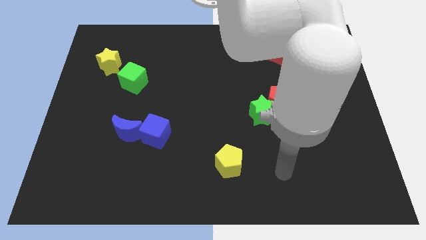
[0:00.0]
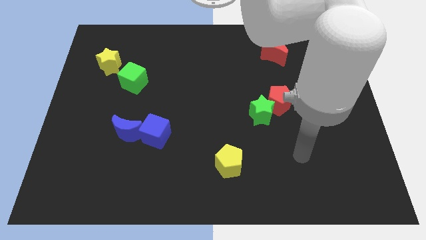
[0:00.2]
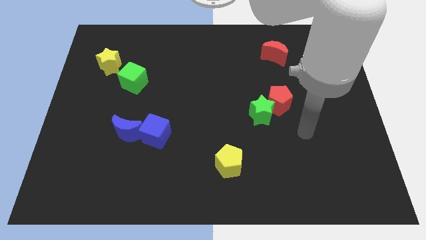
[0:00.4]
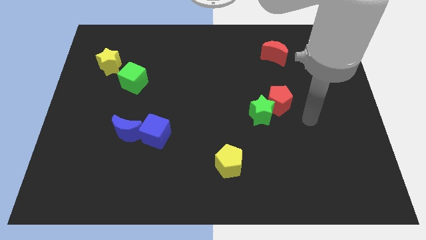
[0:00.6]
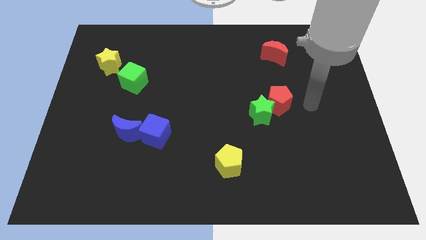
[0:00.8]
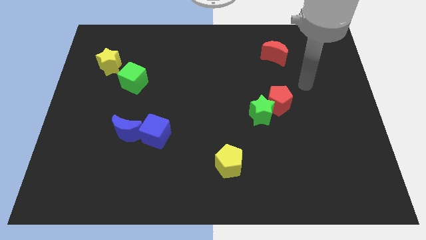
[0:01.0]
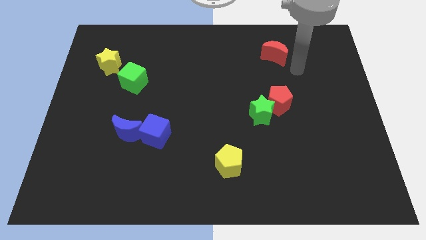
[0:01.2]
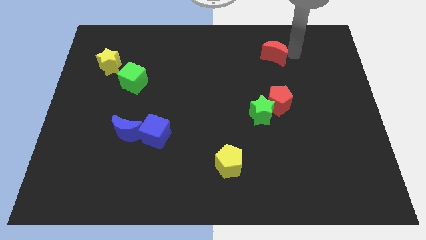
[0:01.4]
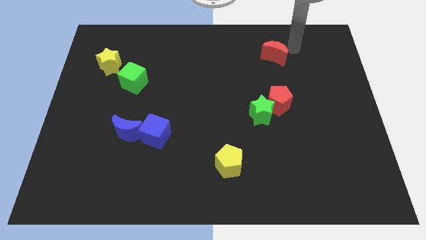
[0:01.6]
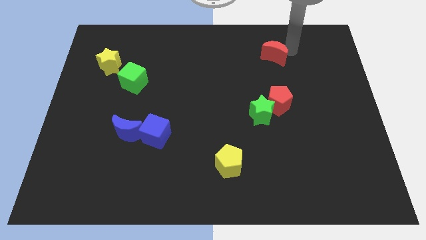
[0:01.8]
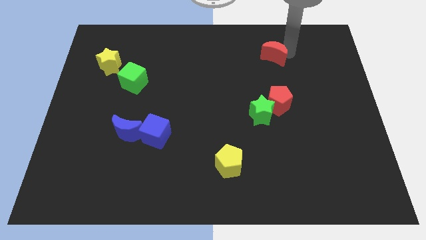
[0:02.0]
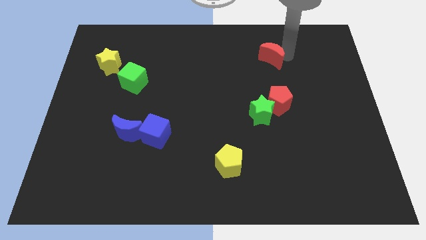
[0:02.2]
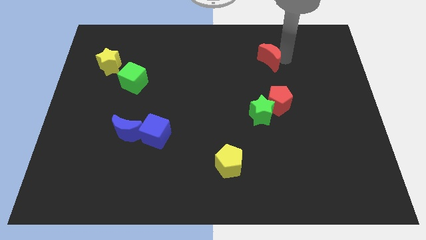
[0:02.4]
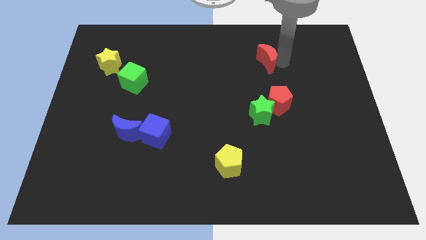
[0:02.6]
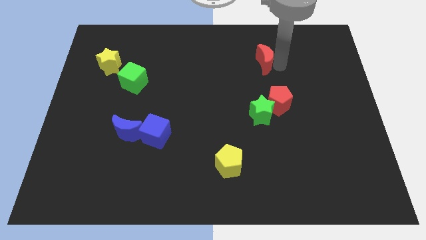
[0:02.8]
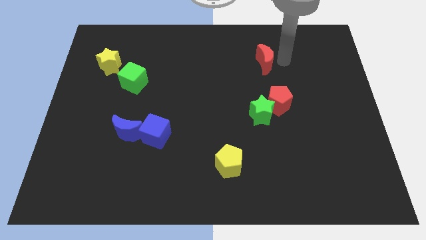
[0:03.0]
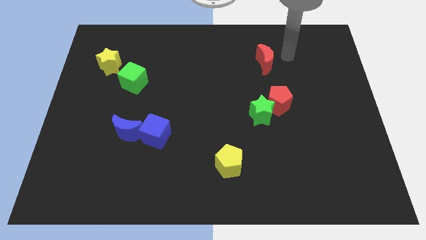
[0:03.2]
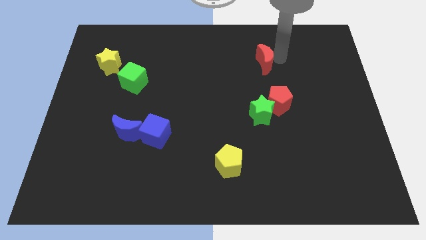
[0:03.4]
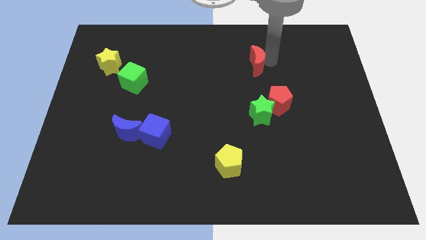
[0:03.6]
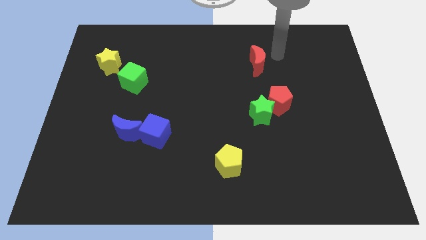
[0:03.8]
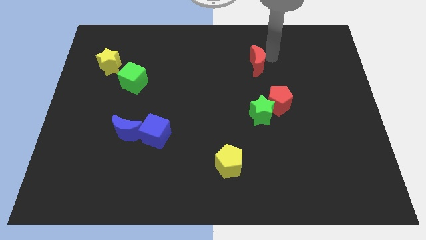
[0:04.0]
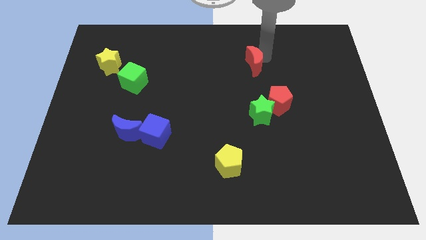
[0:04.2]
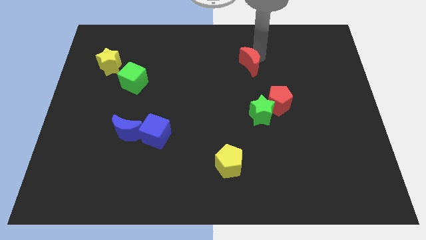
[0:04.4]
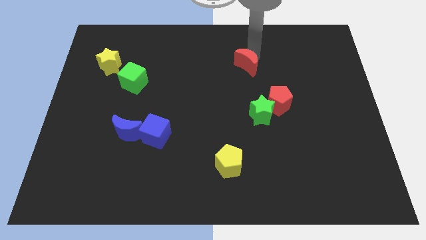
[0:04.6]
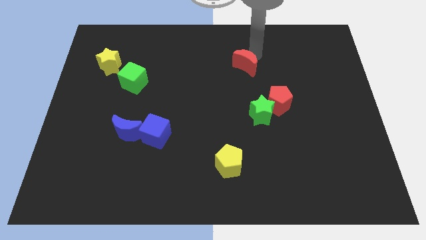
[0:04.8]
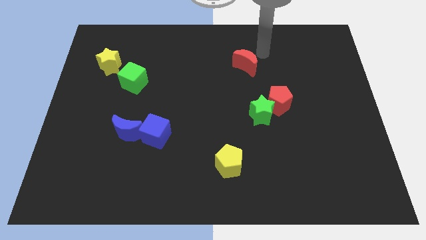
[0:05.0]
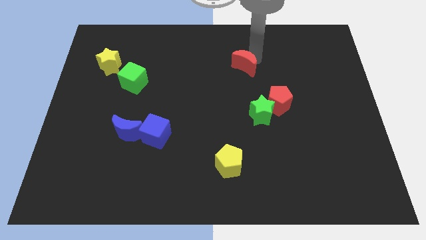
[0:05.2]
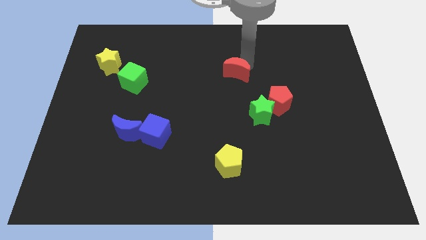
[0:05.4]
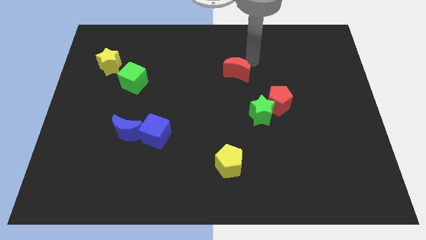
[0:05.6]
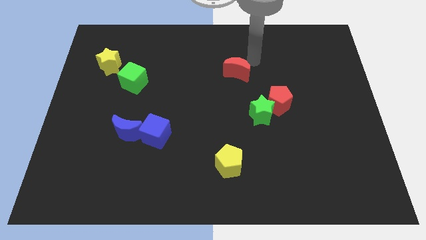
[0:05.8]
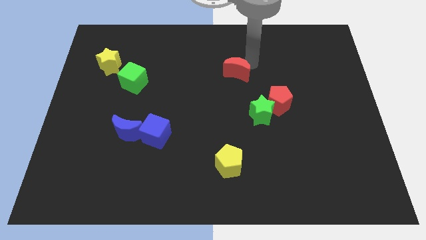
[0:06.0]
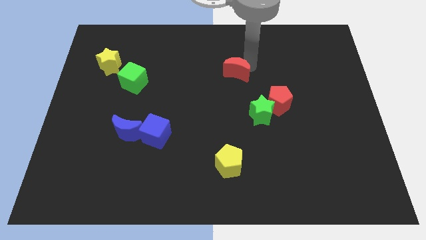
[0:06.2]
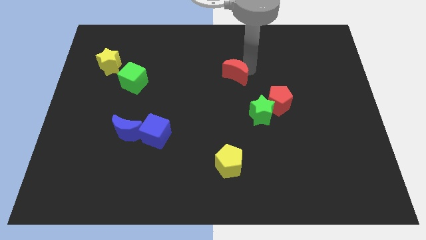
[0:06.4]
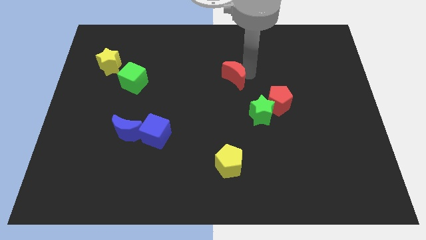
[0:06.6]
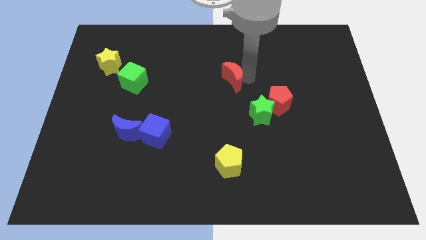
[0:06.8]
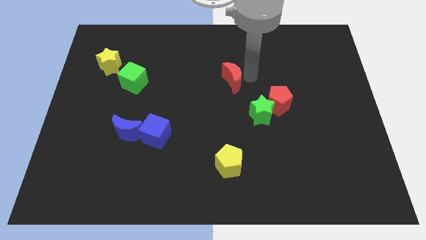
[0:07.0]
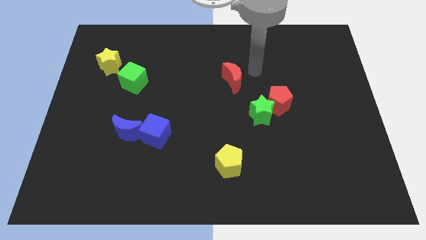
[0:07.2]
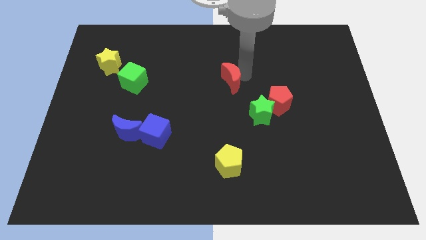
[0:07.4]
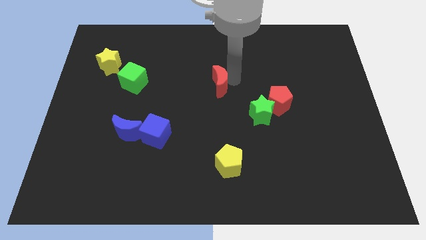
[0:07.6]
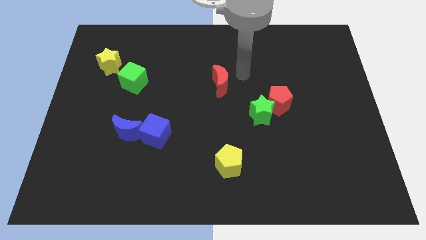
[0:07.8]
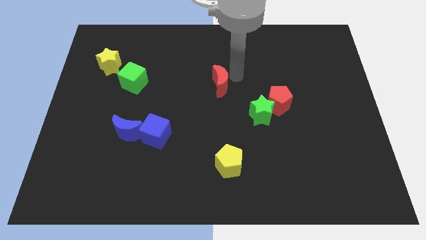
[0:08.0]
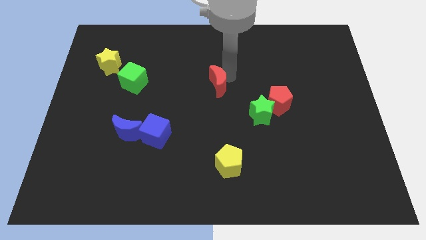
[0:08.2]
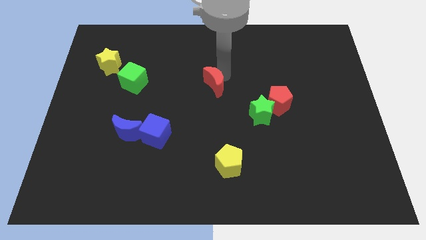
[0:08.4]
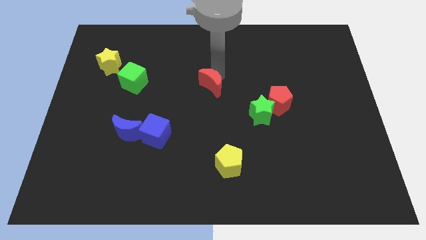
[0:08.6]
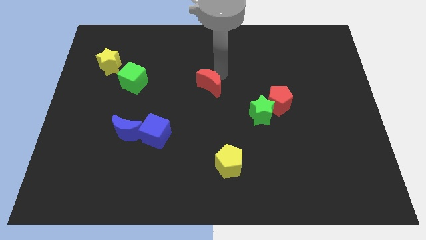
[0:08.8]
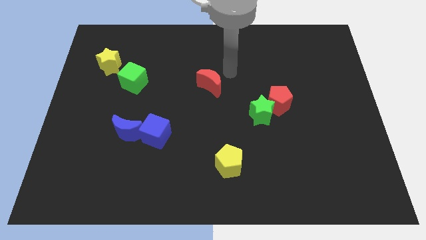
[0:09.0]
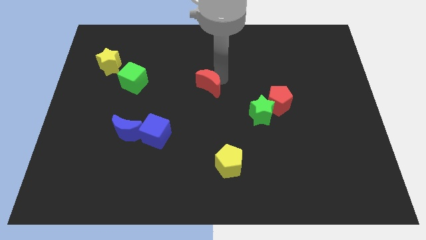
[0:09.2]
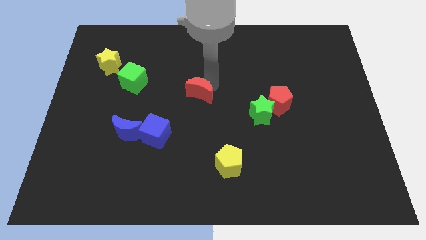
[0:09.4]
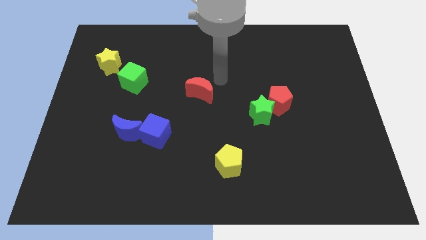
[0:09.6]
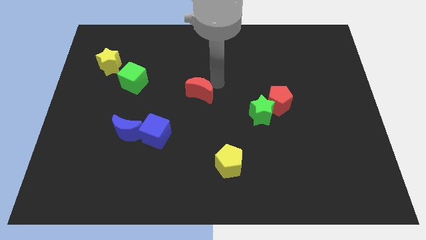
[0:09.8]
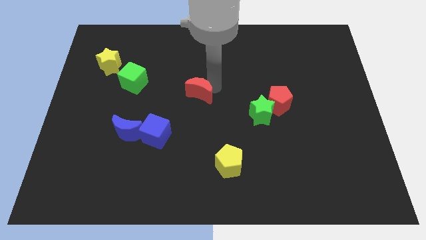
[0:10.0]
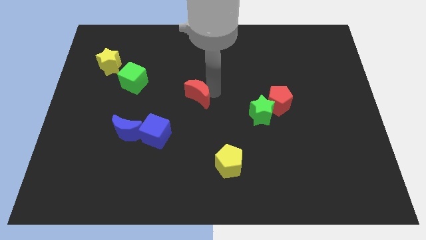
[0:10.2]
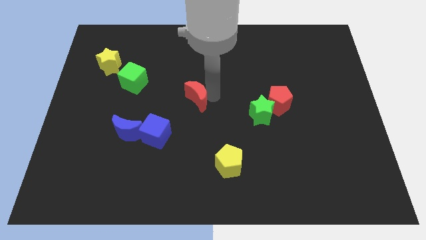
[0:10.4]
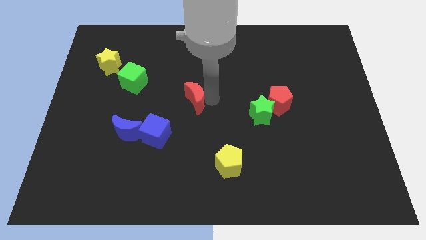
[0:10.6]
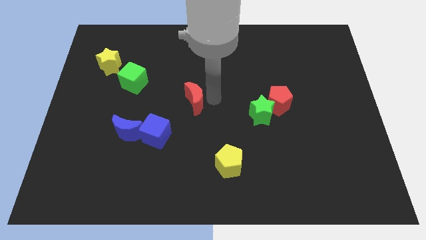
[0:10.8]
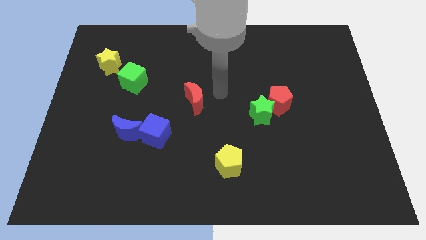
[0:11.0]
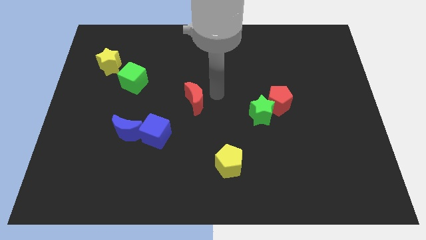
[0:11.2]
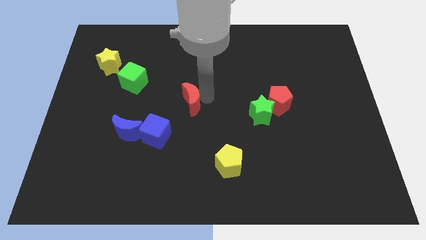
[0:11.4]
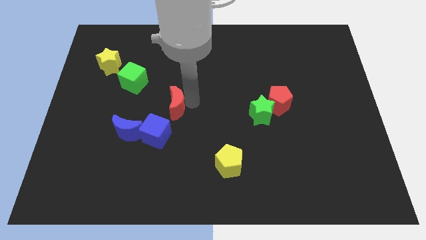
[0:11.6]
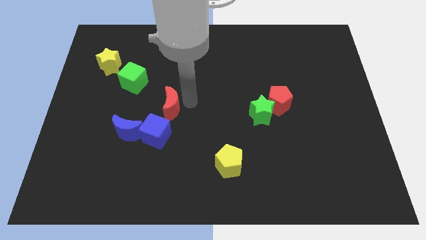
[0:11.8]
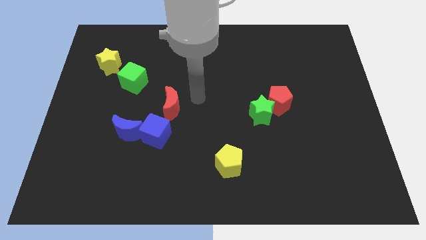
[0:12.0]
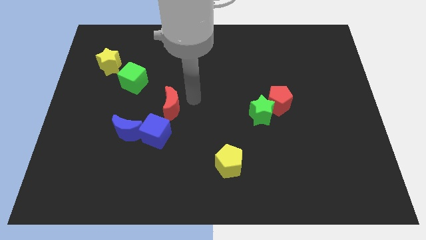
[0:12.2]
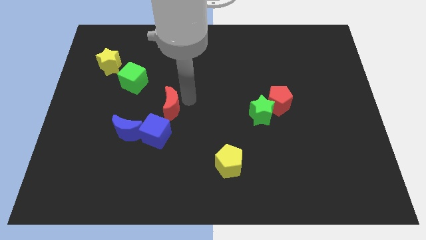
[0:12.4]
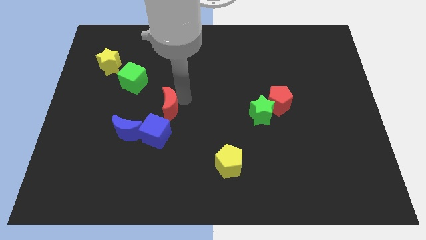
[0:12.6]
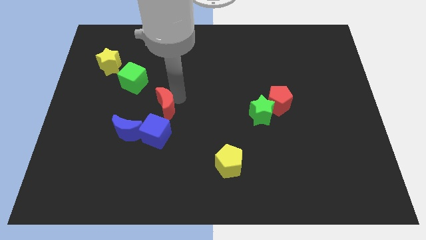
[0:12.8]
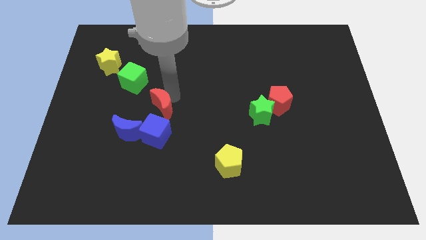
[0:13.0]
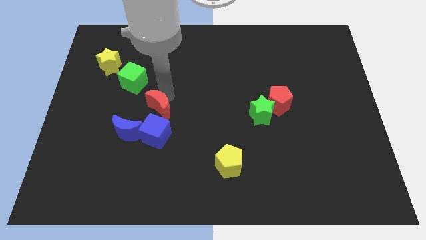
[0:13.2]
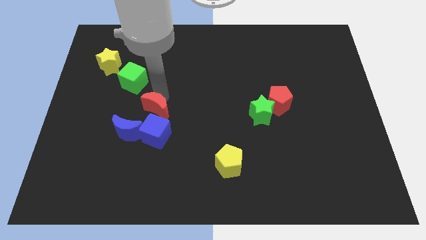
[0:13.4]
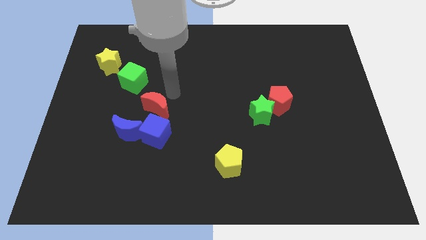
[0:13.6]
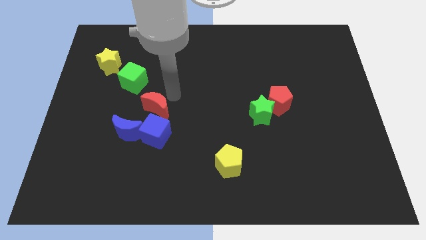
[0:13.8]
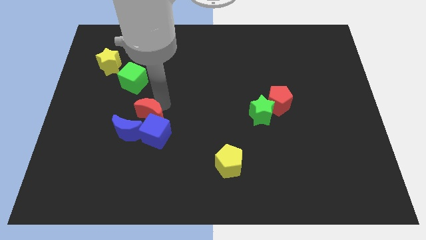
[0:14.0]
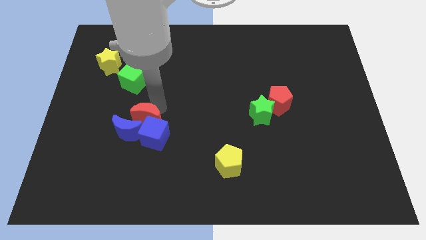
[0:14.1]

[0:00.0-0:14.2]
slide the red moon next to the blue moon

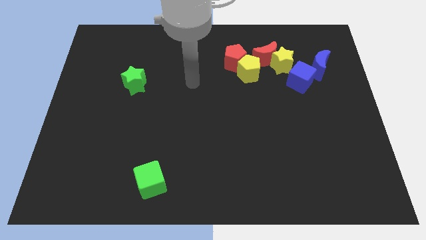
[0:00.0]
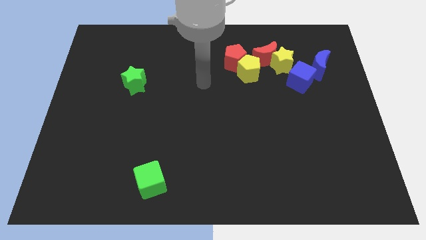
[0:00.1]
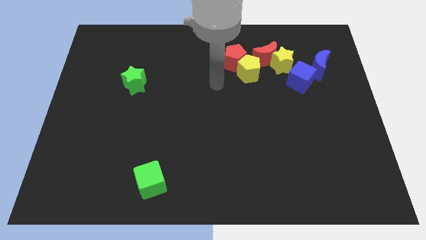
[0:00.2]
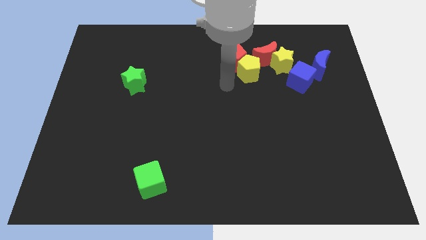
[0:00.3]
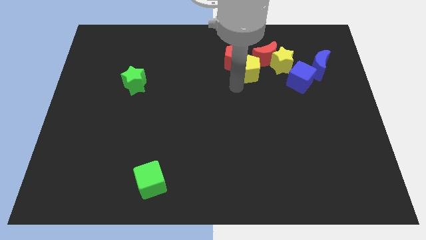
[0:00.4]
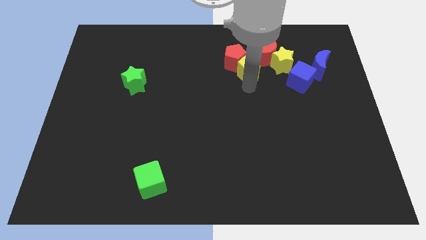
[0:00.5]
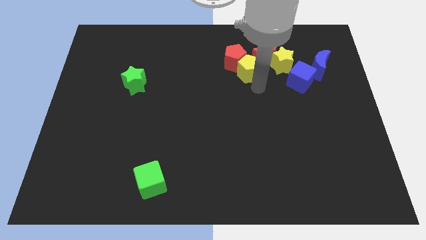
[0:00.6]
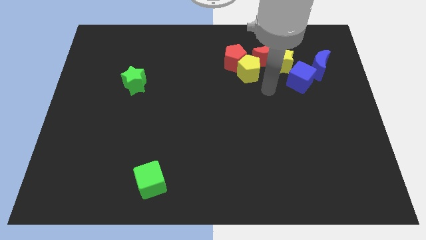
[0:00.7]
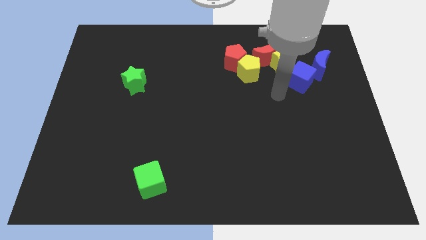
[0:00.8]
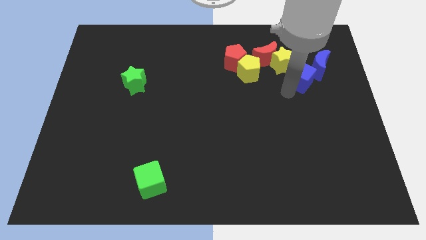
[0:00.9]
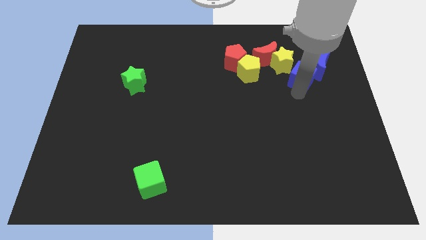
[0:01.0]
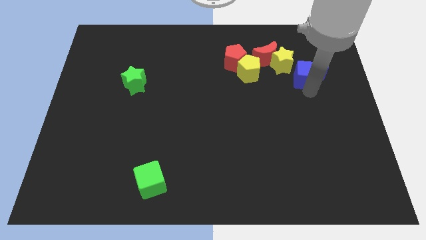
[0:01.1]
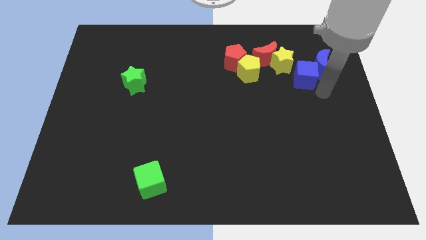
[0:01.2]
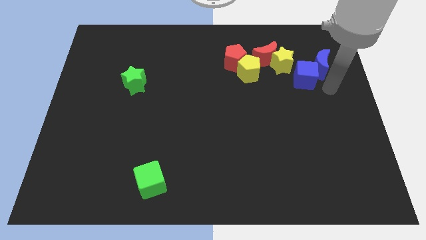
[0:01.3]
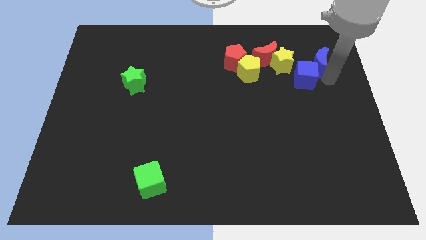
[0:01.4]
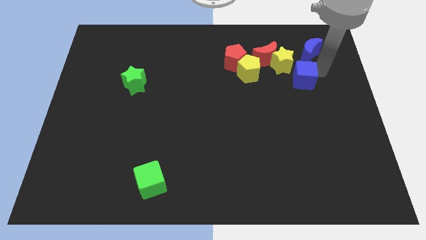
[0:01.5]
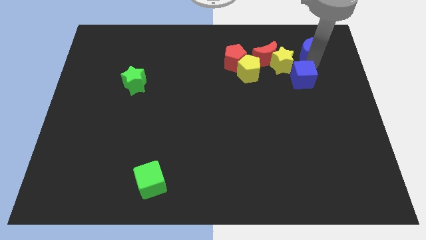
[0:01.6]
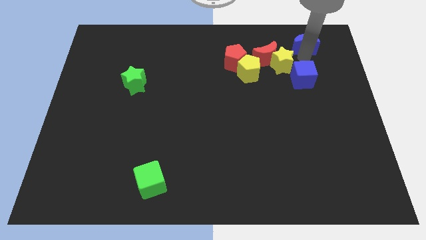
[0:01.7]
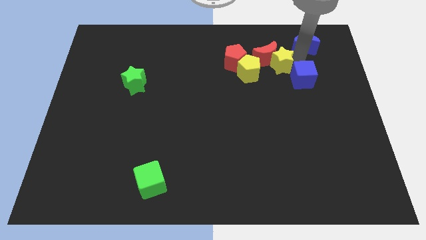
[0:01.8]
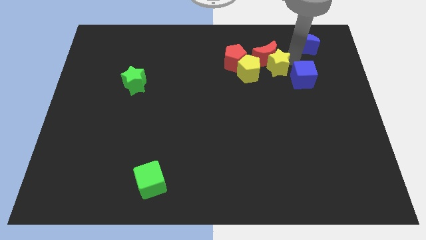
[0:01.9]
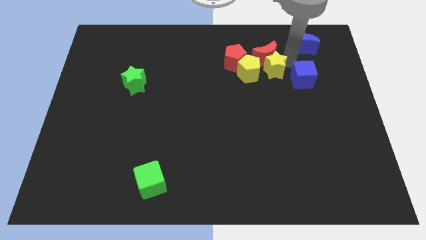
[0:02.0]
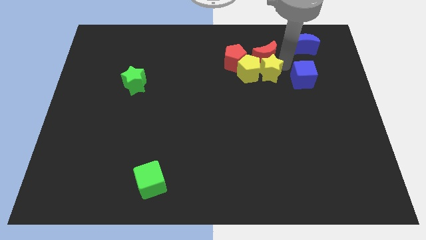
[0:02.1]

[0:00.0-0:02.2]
put the yellow star next to the yellow pentagon
